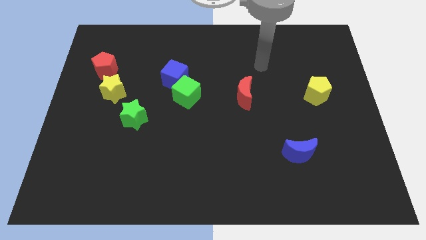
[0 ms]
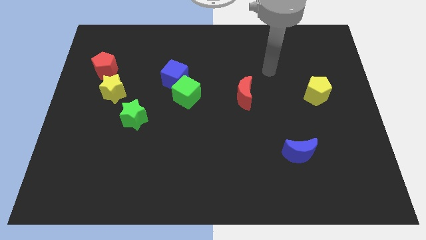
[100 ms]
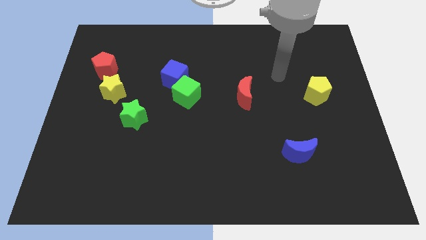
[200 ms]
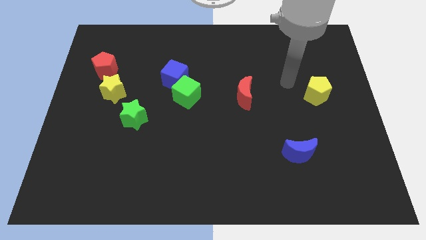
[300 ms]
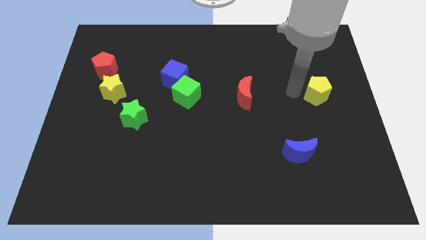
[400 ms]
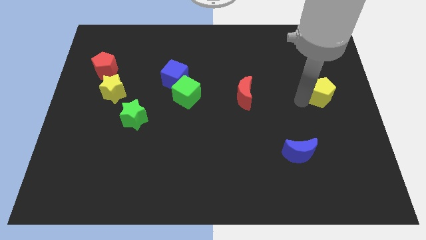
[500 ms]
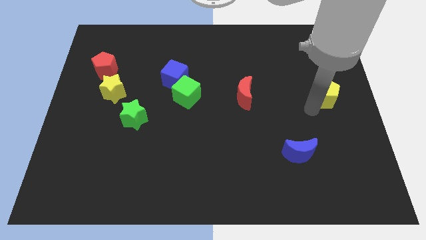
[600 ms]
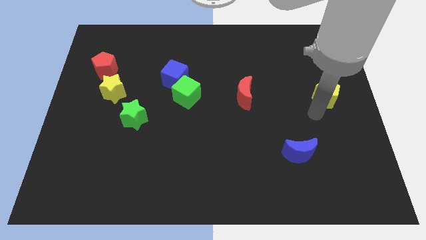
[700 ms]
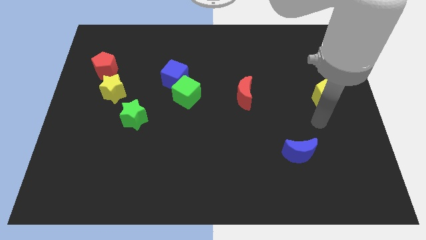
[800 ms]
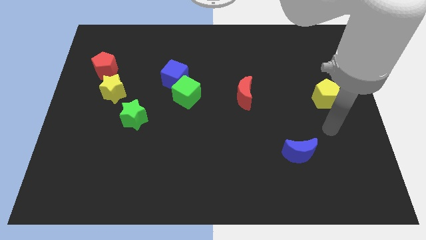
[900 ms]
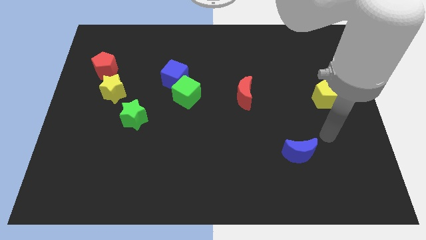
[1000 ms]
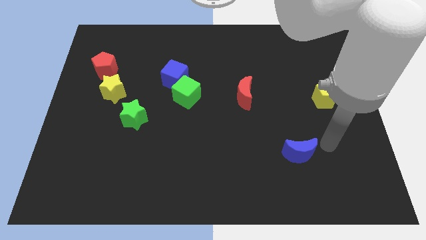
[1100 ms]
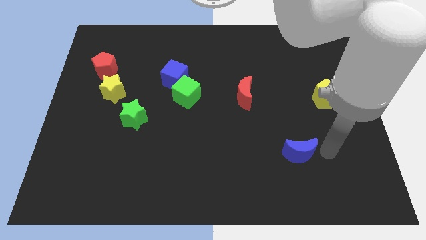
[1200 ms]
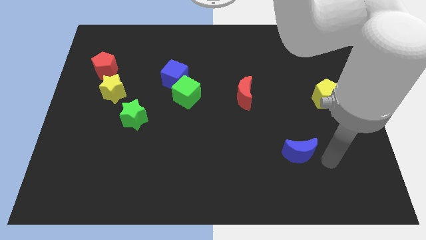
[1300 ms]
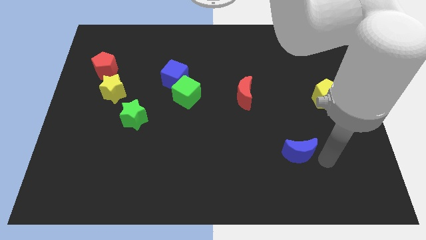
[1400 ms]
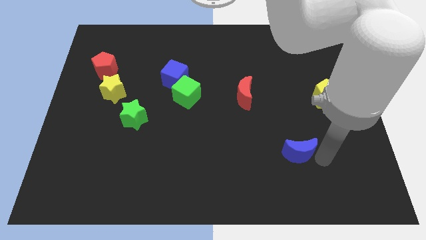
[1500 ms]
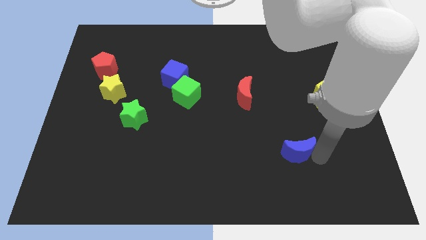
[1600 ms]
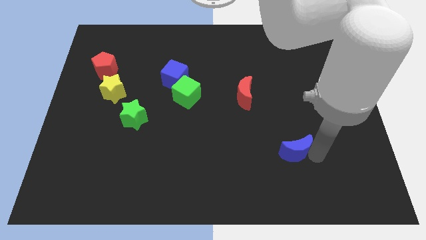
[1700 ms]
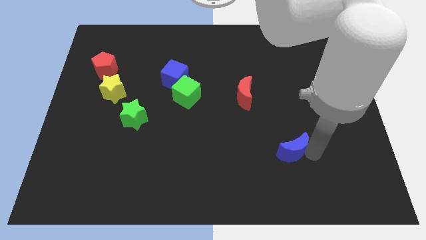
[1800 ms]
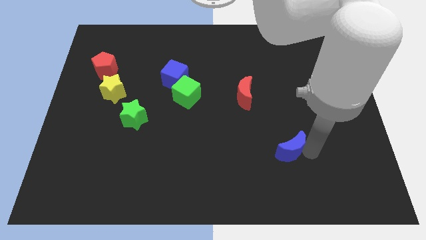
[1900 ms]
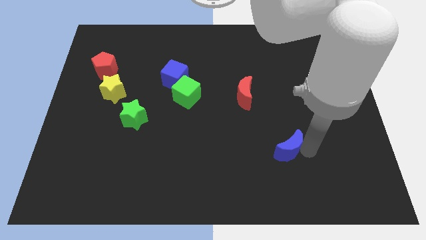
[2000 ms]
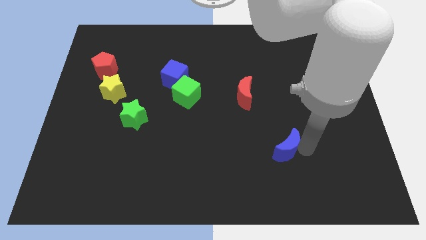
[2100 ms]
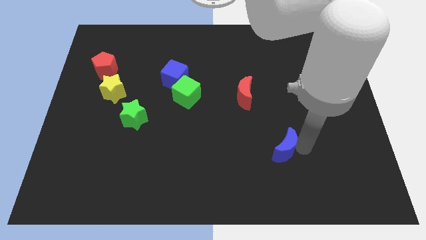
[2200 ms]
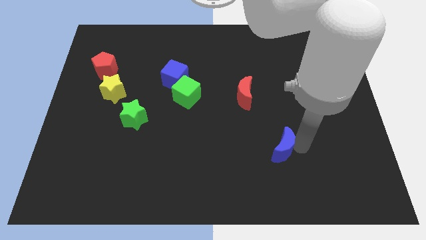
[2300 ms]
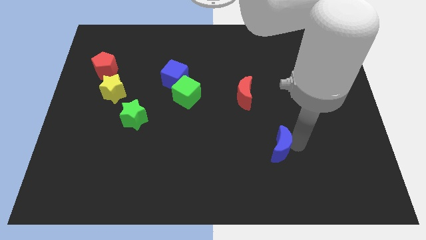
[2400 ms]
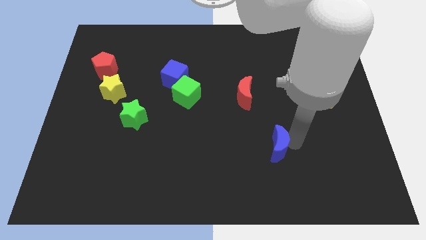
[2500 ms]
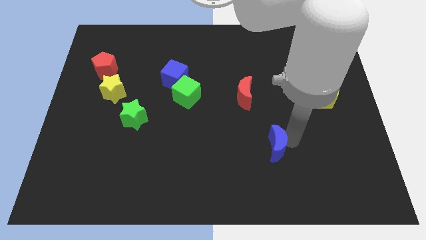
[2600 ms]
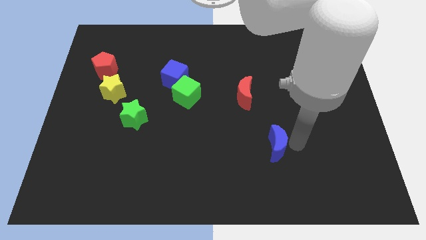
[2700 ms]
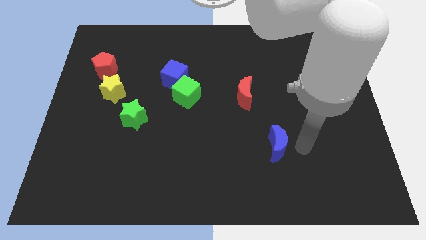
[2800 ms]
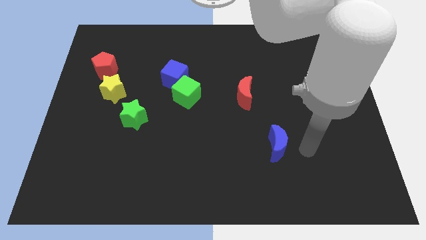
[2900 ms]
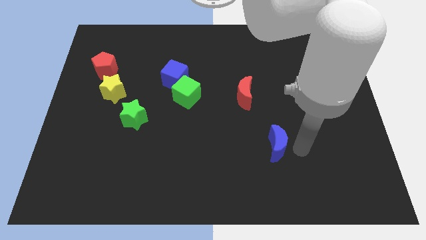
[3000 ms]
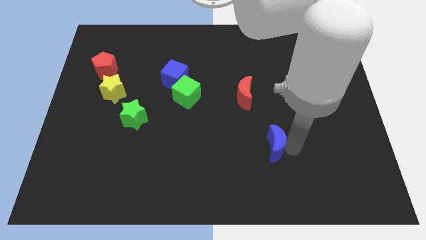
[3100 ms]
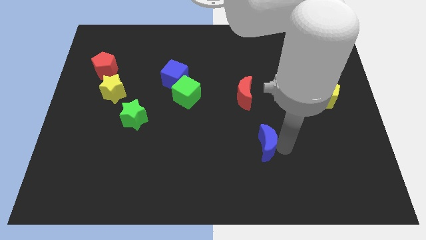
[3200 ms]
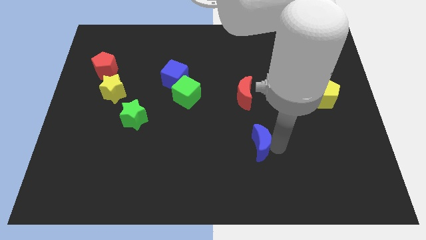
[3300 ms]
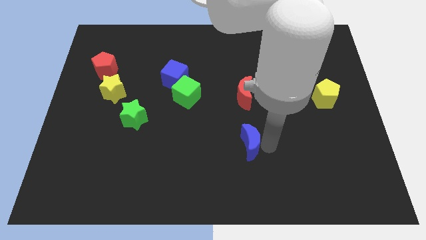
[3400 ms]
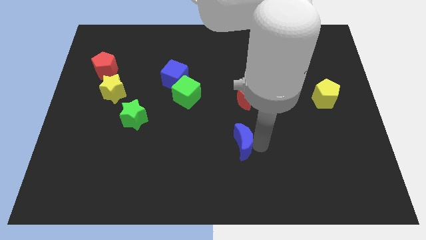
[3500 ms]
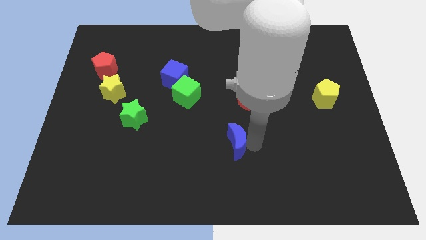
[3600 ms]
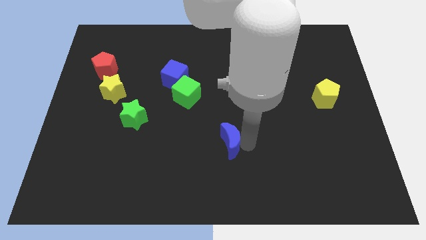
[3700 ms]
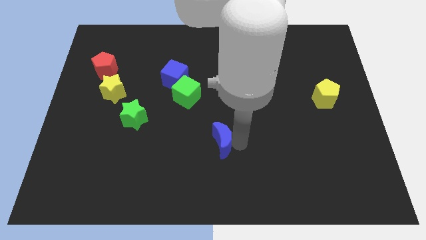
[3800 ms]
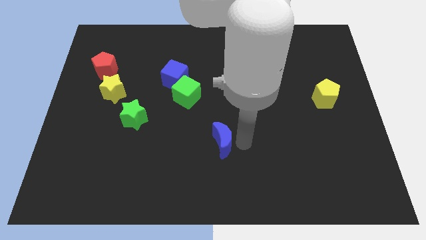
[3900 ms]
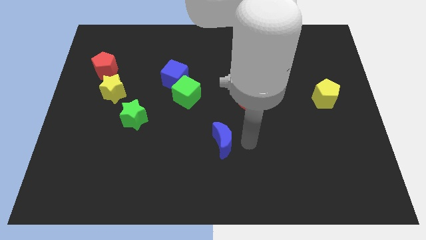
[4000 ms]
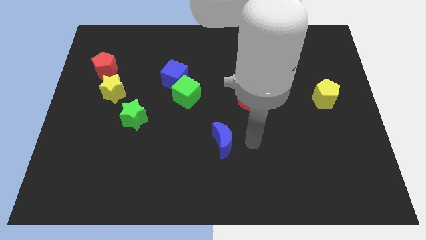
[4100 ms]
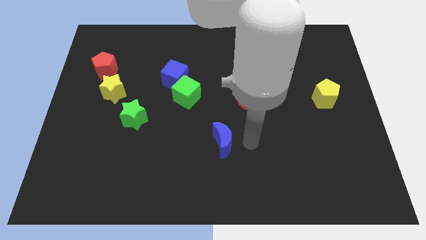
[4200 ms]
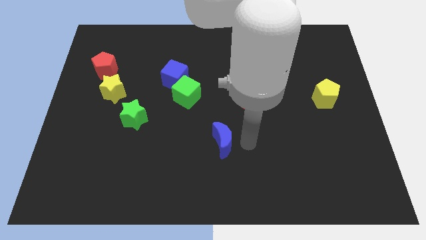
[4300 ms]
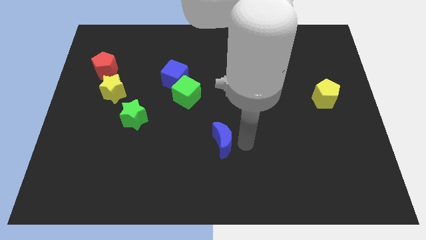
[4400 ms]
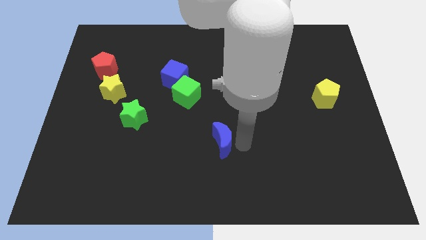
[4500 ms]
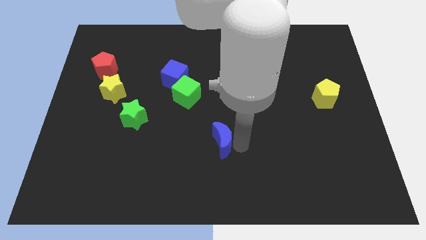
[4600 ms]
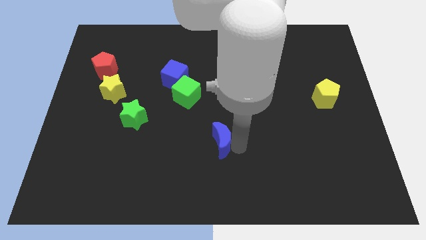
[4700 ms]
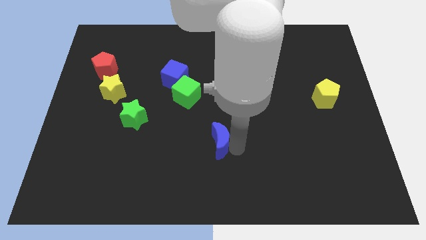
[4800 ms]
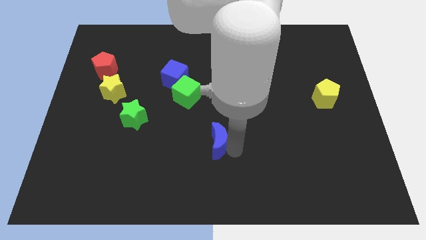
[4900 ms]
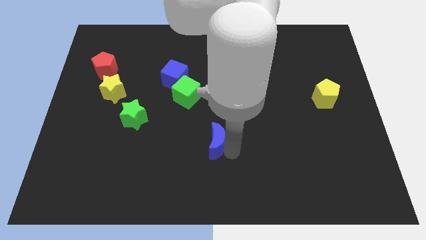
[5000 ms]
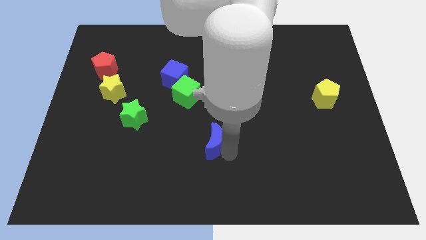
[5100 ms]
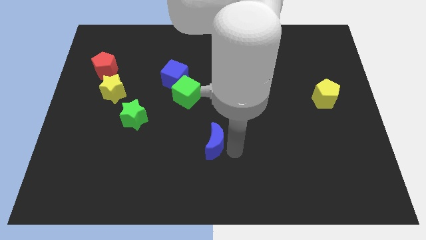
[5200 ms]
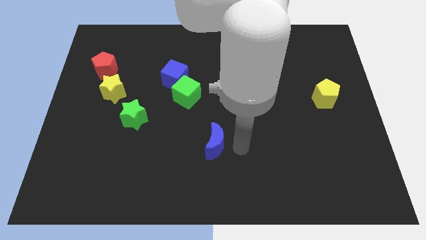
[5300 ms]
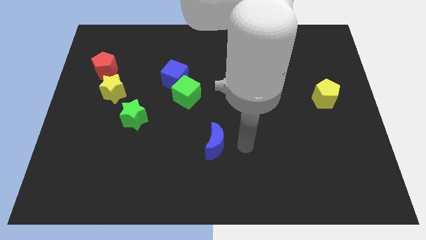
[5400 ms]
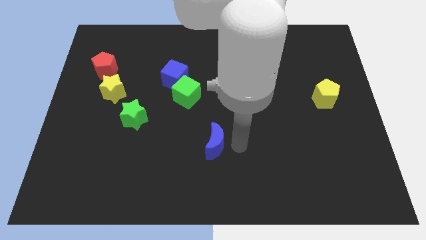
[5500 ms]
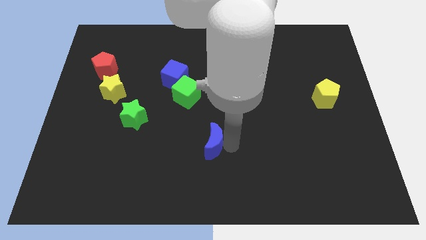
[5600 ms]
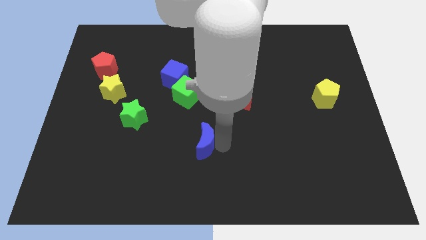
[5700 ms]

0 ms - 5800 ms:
move the blue moon to the left

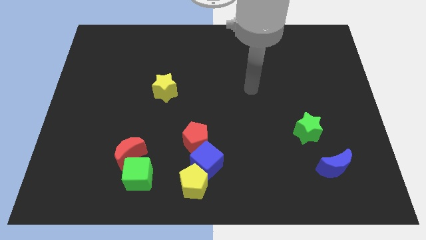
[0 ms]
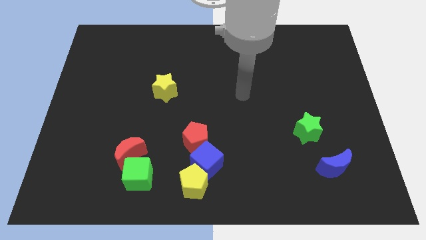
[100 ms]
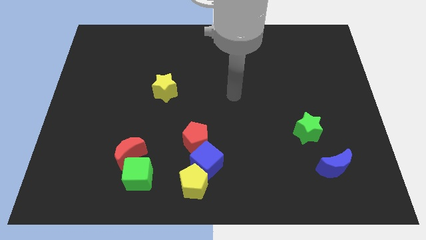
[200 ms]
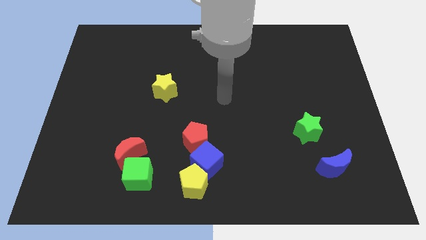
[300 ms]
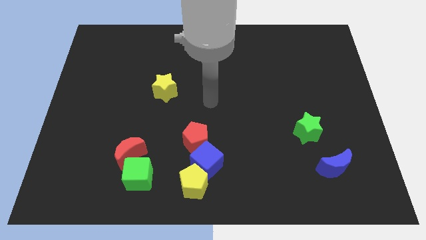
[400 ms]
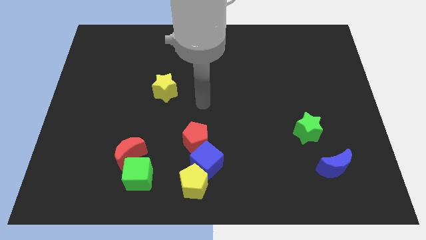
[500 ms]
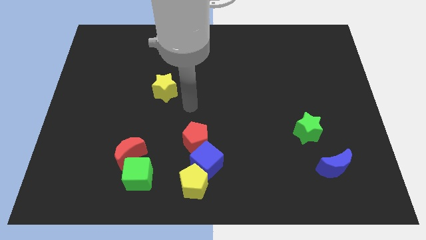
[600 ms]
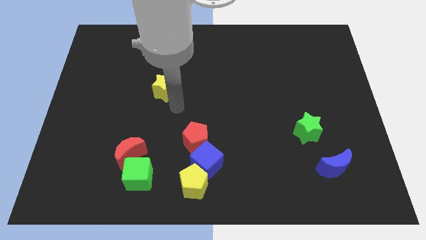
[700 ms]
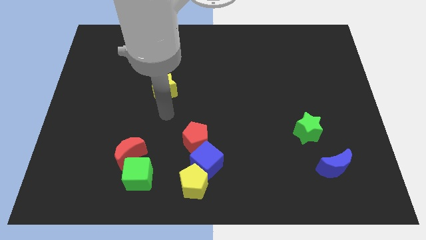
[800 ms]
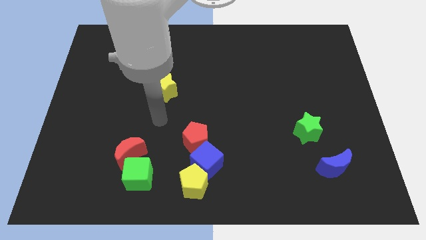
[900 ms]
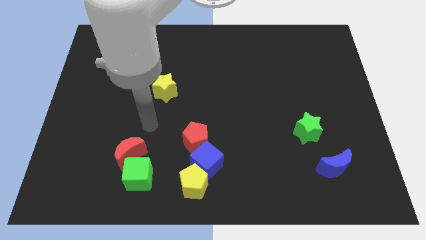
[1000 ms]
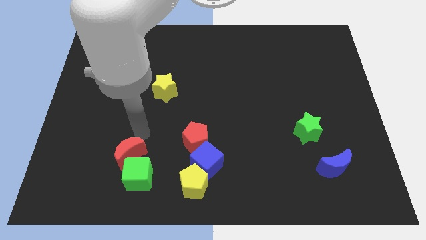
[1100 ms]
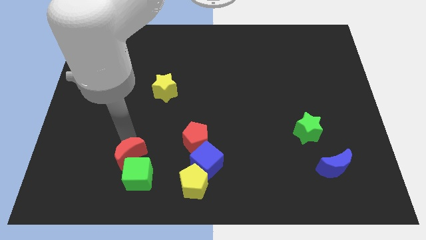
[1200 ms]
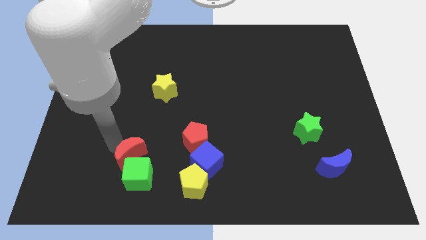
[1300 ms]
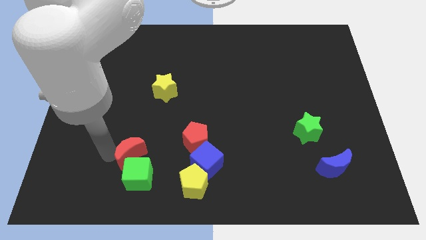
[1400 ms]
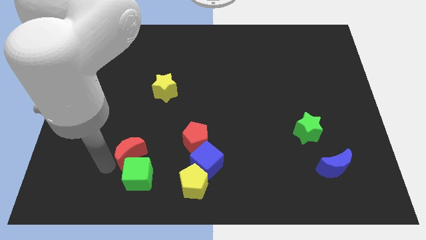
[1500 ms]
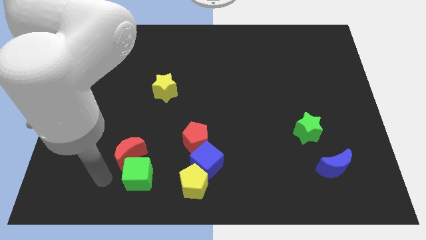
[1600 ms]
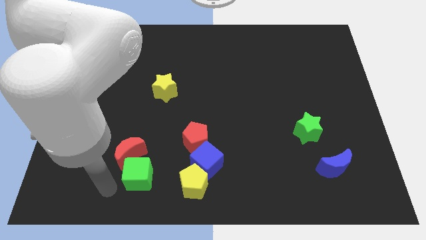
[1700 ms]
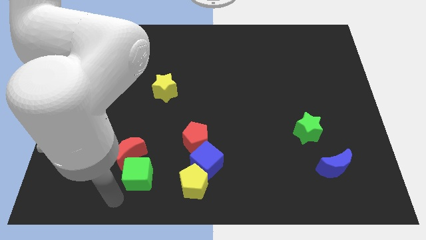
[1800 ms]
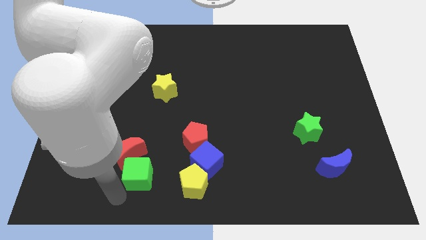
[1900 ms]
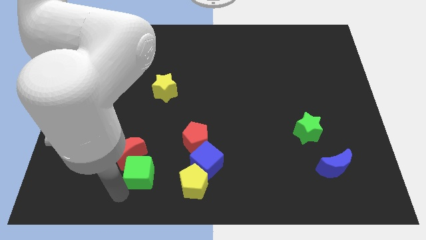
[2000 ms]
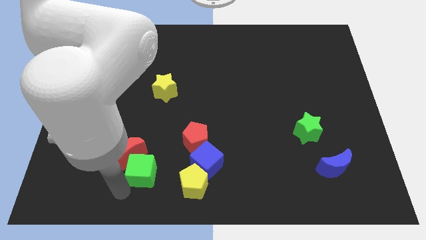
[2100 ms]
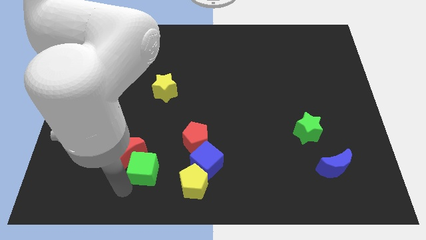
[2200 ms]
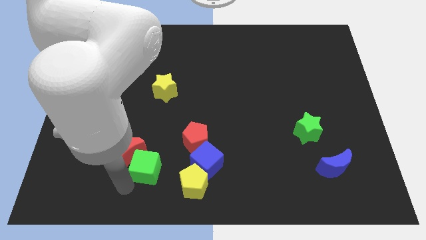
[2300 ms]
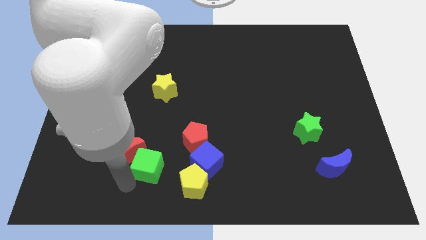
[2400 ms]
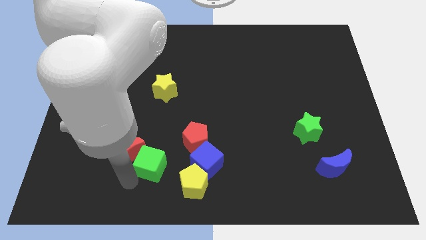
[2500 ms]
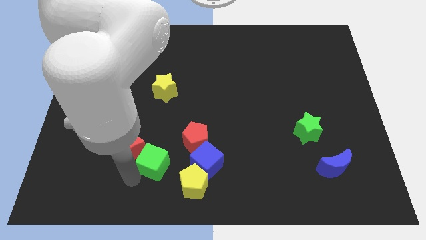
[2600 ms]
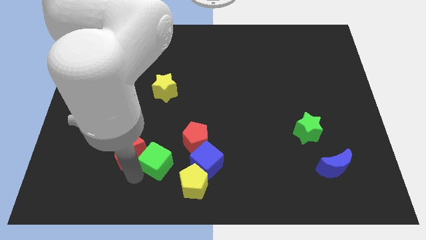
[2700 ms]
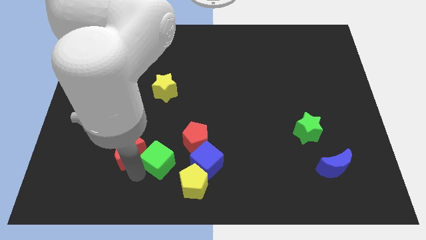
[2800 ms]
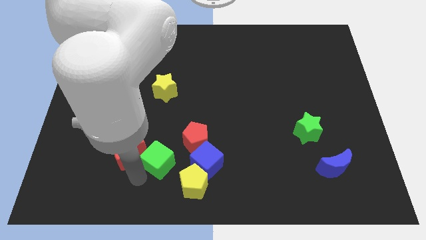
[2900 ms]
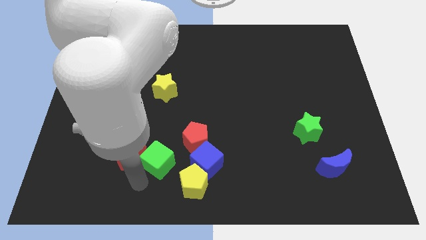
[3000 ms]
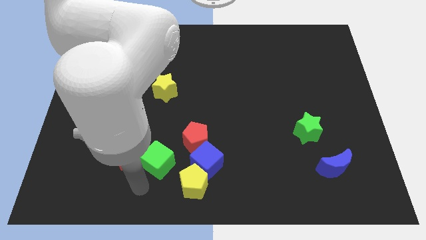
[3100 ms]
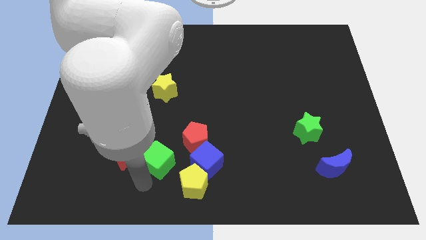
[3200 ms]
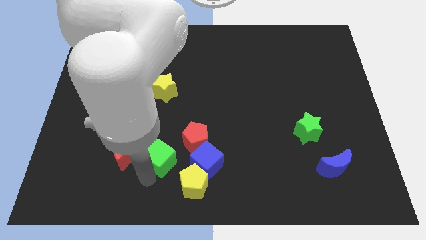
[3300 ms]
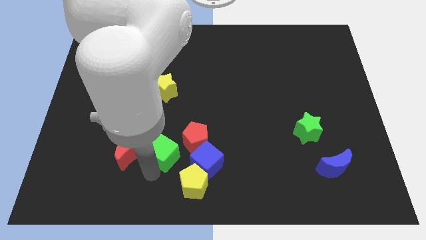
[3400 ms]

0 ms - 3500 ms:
push the green cube a little up and to the right
